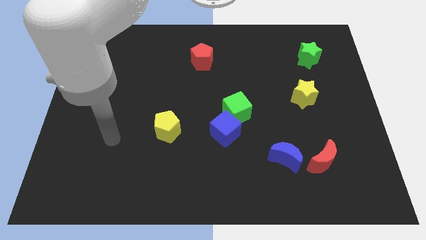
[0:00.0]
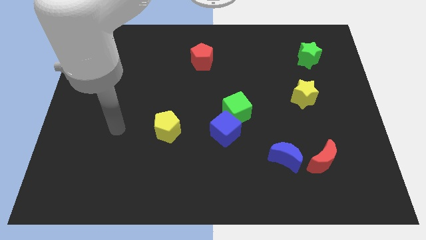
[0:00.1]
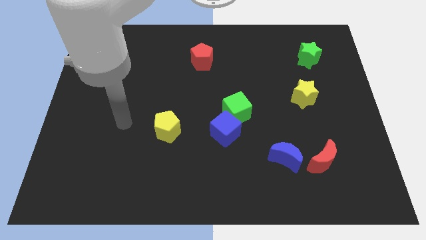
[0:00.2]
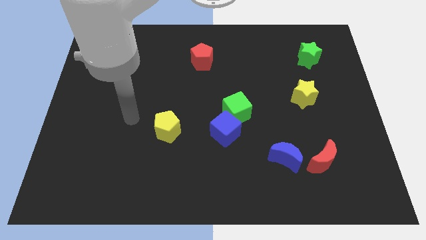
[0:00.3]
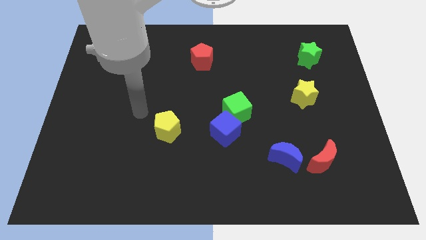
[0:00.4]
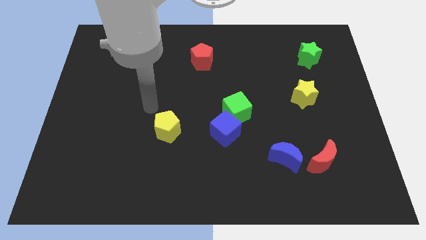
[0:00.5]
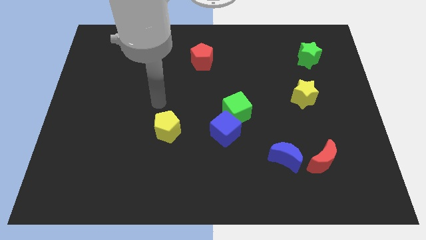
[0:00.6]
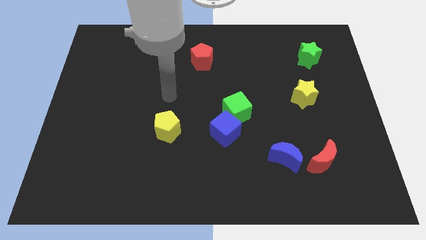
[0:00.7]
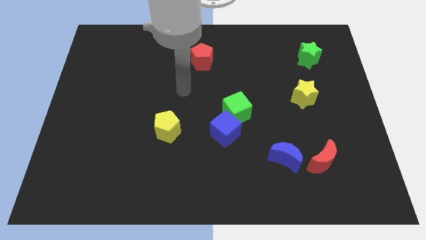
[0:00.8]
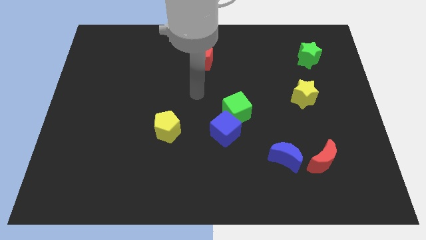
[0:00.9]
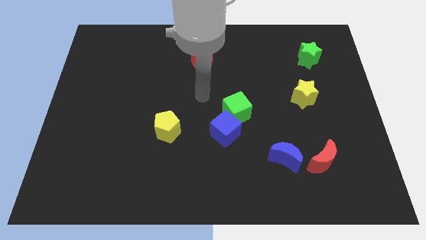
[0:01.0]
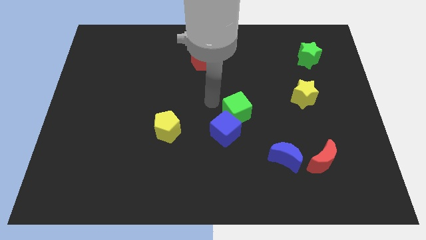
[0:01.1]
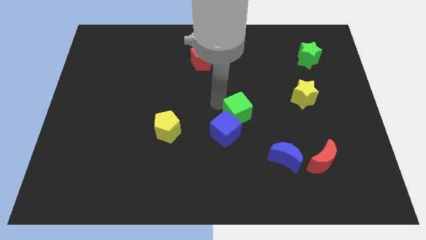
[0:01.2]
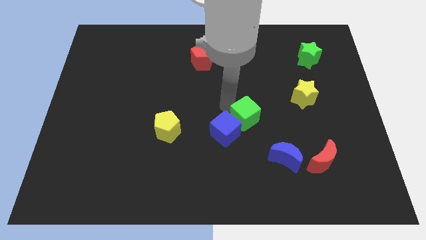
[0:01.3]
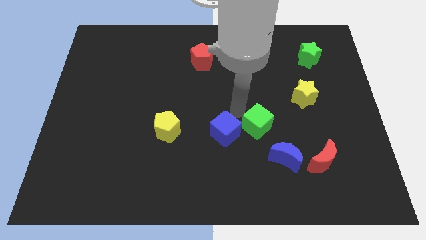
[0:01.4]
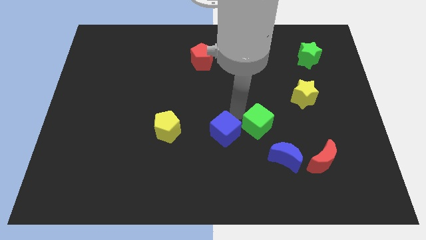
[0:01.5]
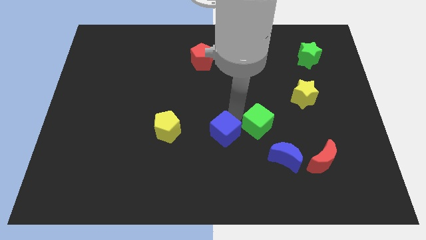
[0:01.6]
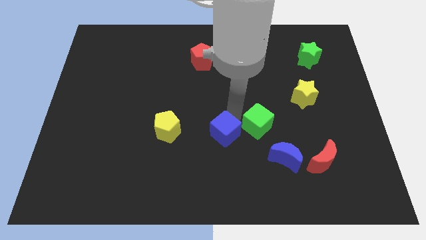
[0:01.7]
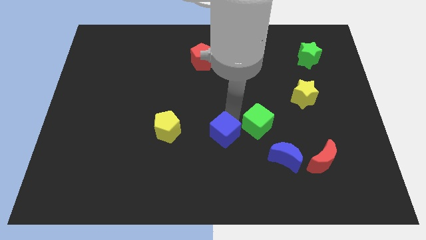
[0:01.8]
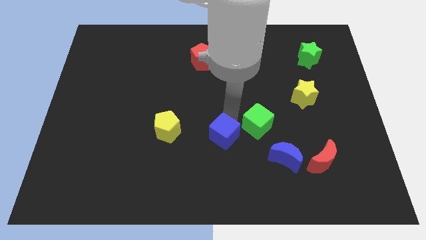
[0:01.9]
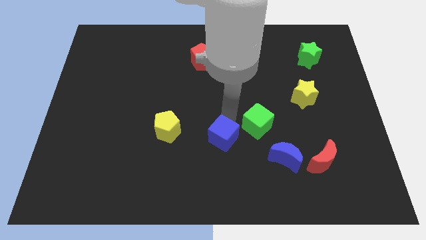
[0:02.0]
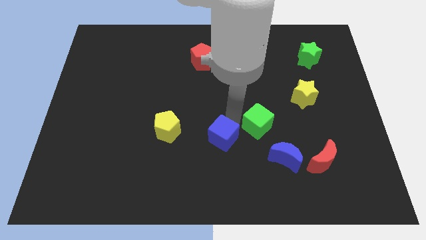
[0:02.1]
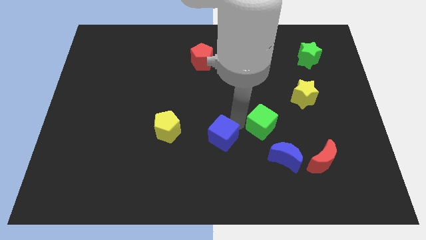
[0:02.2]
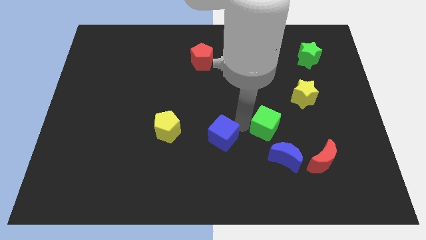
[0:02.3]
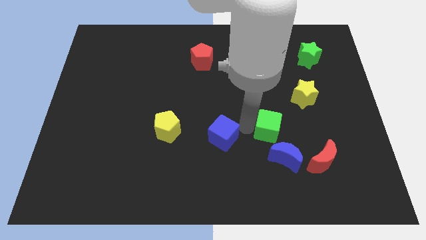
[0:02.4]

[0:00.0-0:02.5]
move the blue cube away from the green cube

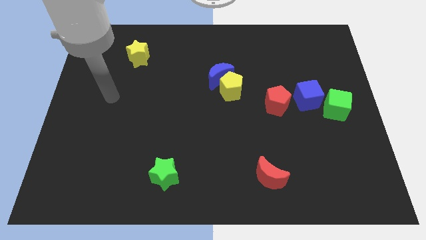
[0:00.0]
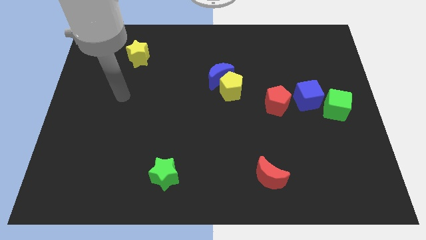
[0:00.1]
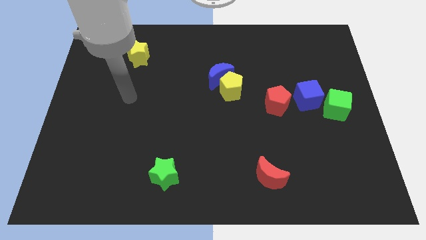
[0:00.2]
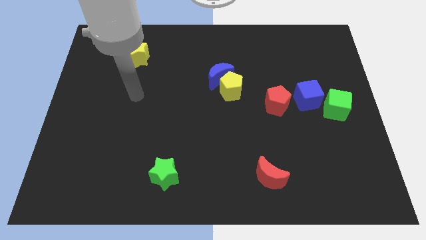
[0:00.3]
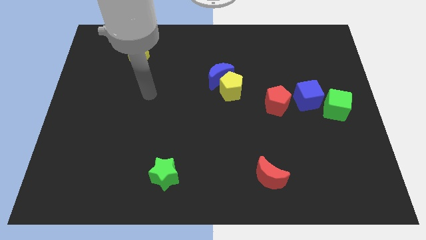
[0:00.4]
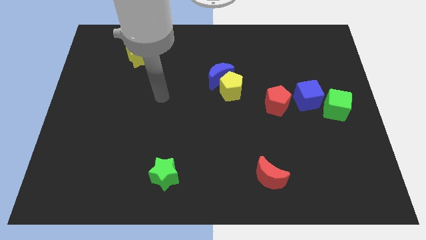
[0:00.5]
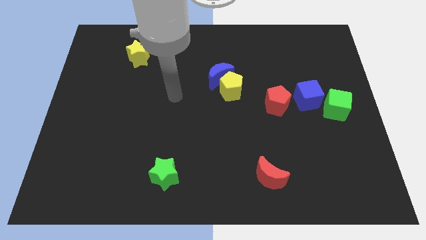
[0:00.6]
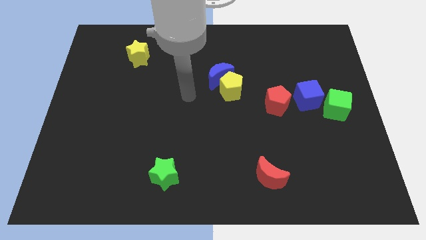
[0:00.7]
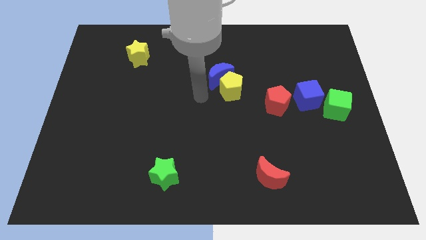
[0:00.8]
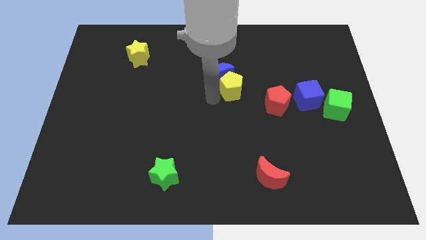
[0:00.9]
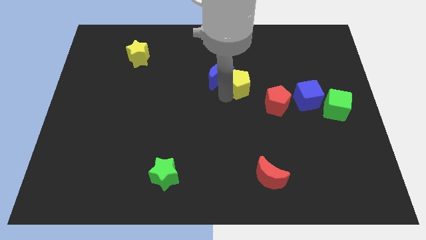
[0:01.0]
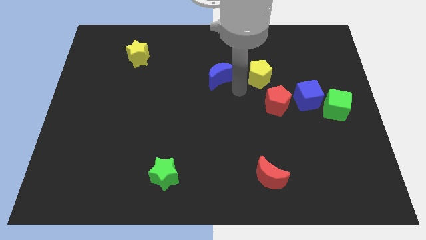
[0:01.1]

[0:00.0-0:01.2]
separate the blue moon from the yellow pentagon

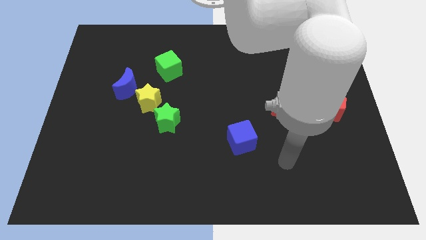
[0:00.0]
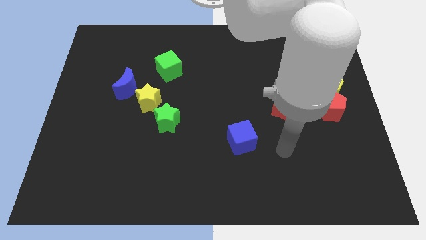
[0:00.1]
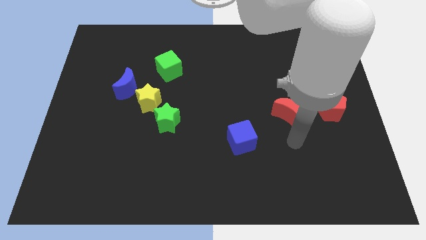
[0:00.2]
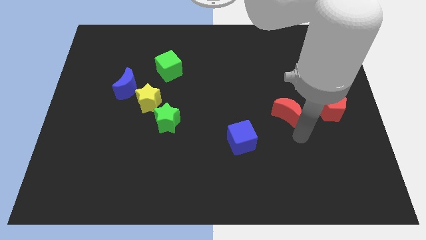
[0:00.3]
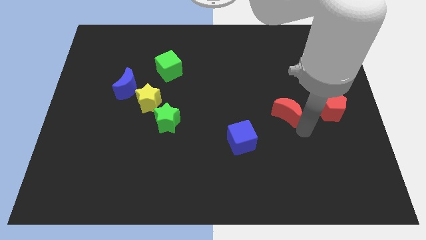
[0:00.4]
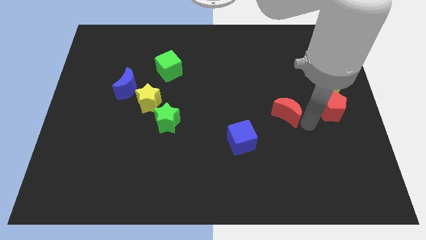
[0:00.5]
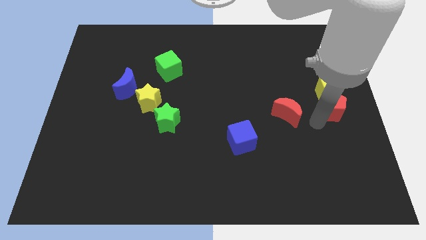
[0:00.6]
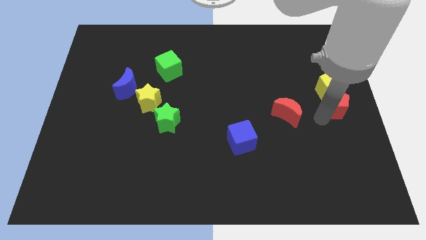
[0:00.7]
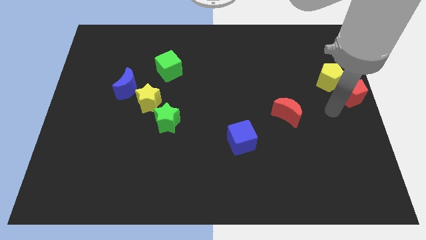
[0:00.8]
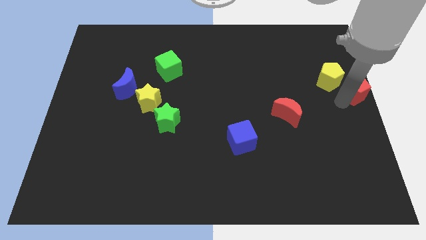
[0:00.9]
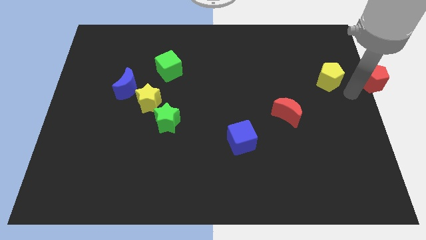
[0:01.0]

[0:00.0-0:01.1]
pull the yellow pentagon apart from the red pentagon

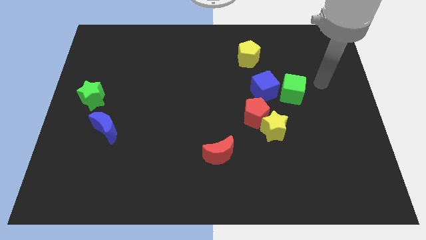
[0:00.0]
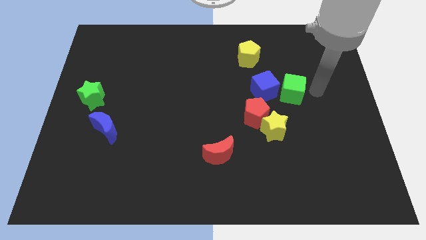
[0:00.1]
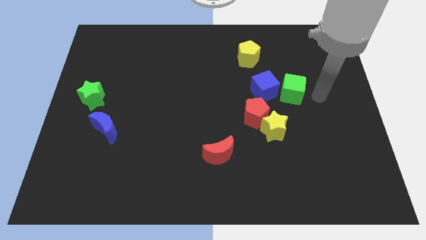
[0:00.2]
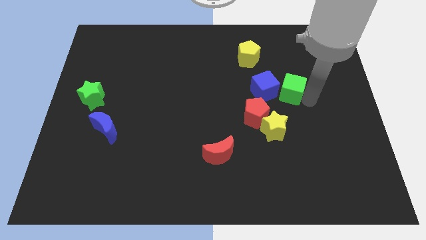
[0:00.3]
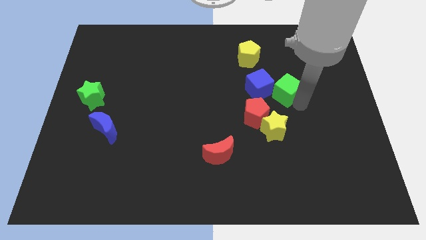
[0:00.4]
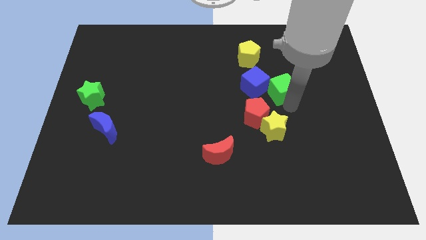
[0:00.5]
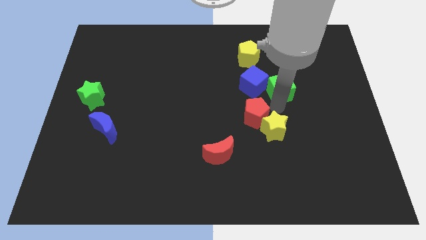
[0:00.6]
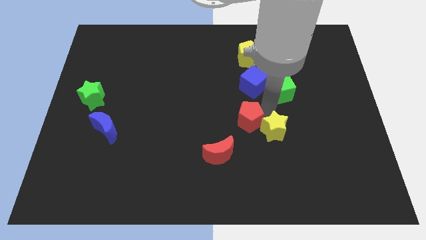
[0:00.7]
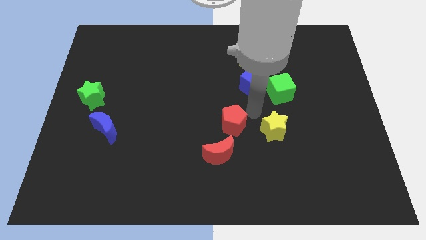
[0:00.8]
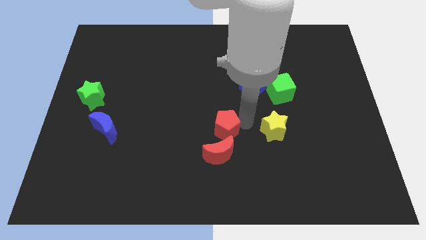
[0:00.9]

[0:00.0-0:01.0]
pull the yellow star apart from the red pentagon

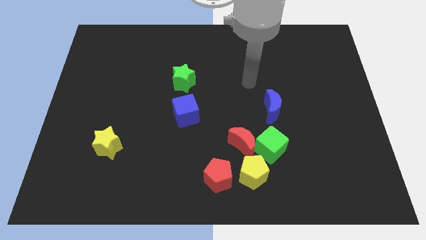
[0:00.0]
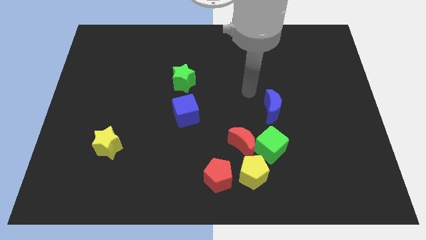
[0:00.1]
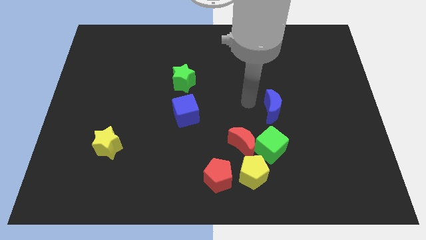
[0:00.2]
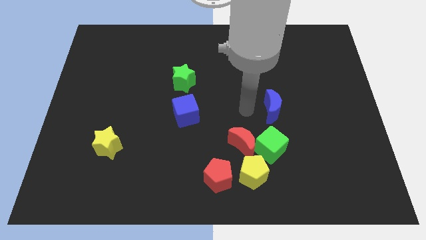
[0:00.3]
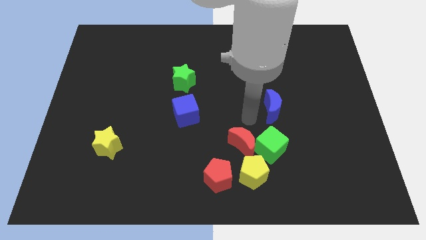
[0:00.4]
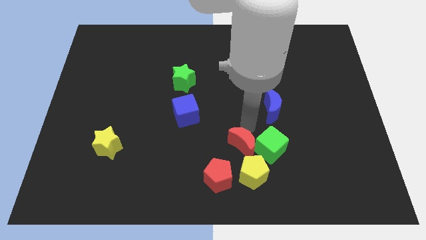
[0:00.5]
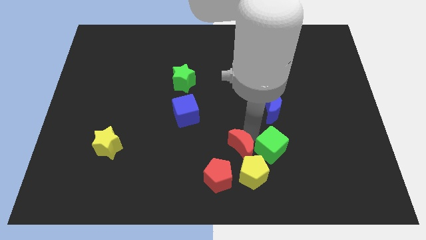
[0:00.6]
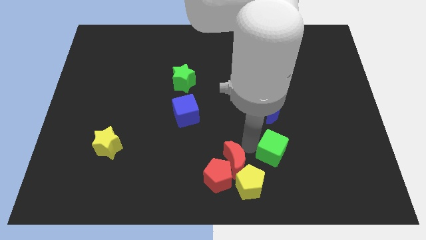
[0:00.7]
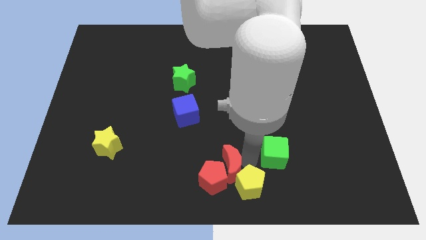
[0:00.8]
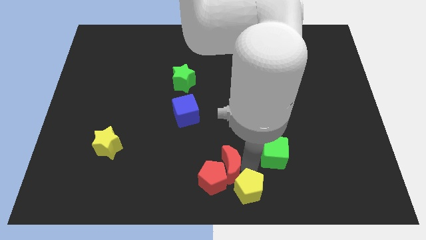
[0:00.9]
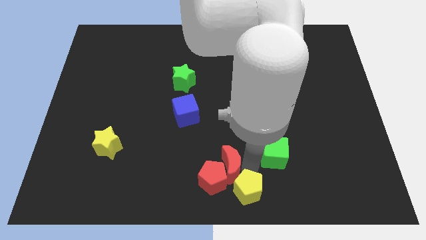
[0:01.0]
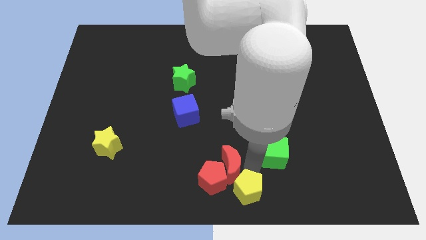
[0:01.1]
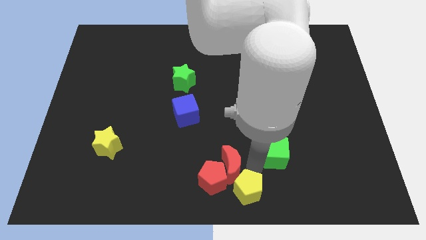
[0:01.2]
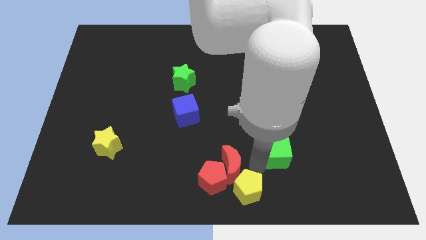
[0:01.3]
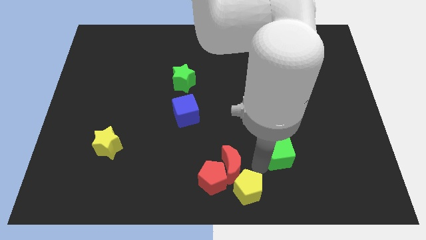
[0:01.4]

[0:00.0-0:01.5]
move the green cube away from the red moon and yellow pentagon

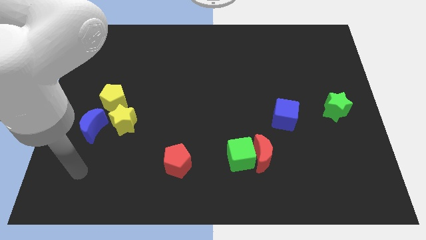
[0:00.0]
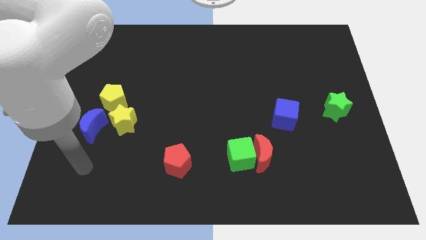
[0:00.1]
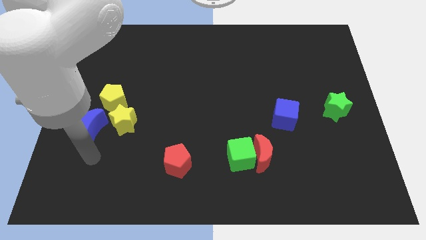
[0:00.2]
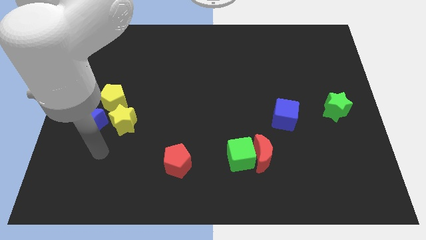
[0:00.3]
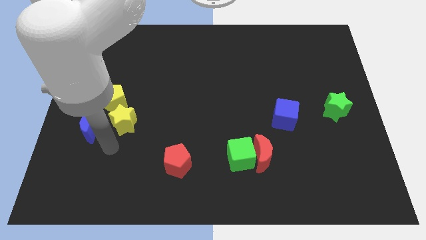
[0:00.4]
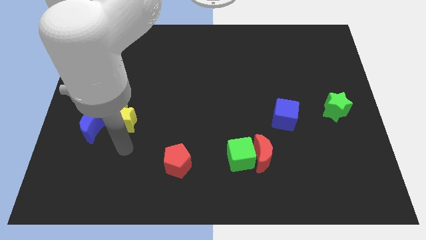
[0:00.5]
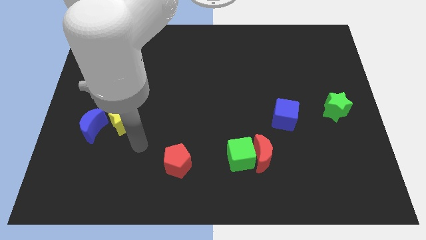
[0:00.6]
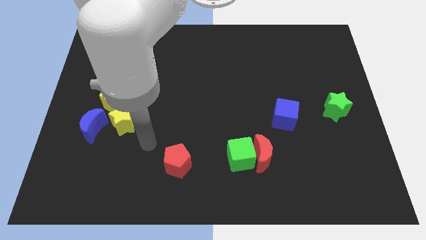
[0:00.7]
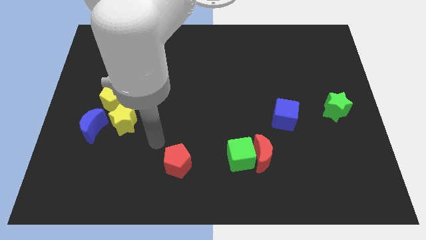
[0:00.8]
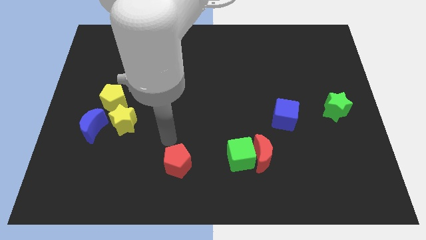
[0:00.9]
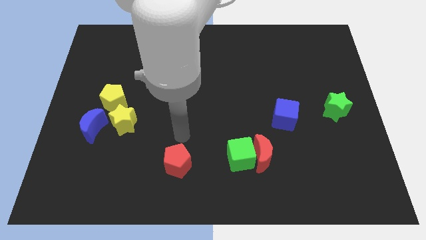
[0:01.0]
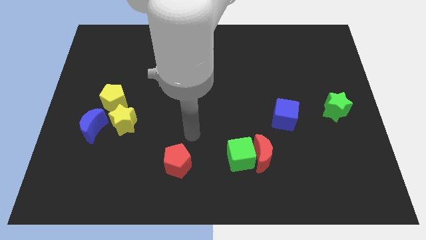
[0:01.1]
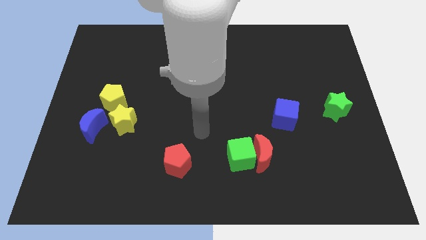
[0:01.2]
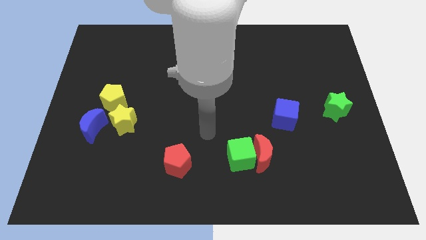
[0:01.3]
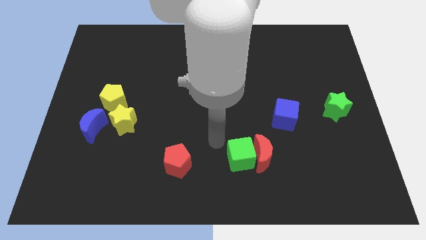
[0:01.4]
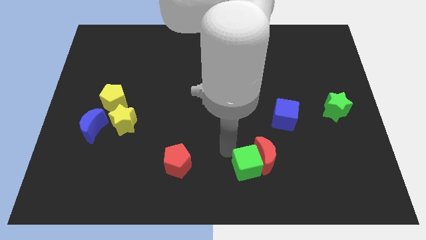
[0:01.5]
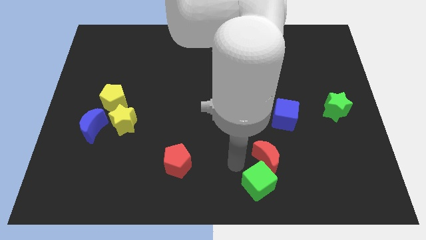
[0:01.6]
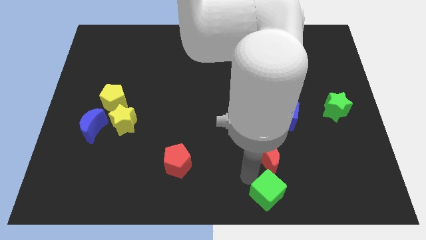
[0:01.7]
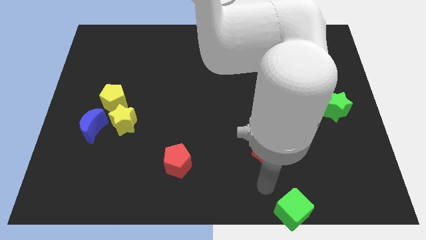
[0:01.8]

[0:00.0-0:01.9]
move the red moon away from the green cube

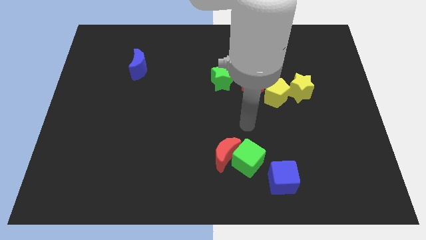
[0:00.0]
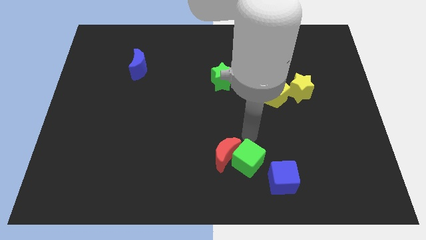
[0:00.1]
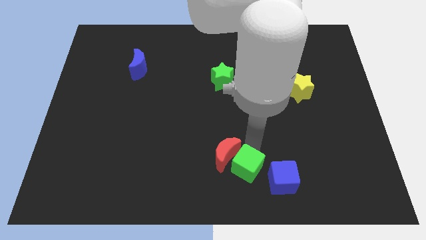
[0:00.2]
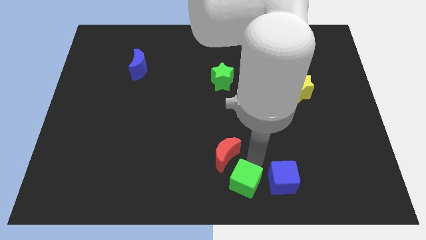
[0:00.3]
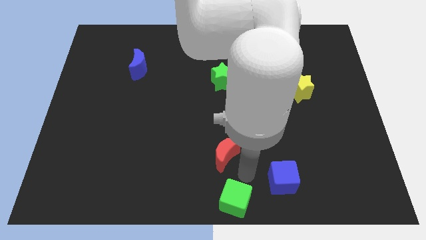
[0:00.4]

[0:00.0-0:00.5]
pull the red moon apart from the green cube
